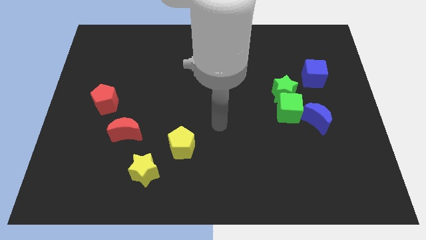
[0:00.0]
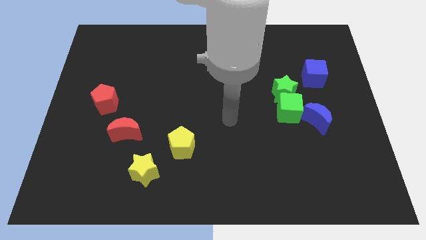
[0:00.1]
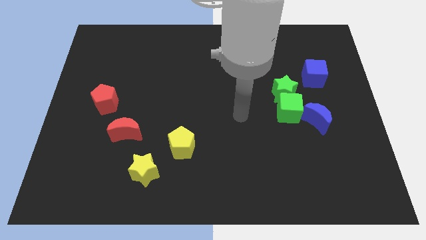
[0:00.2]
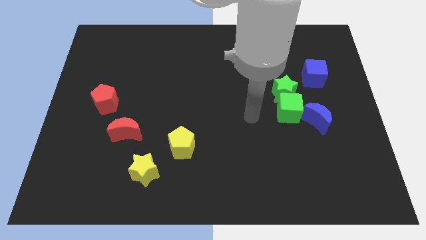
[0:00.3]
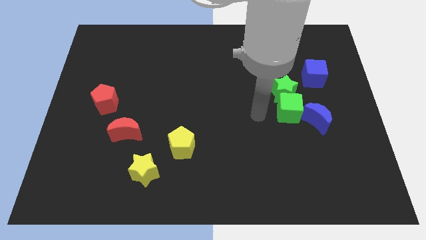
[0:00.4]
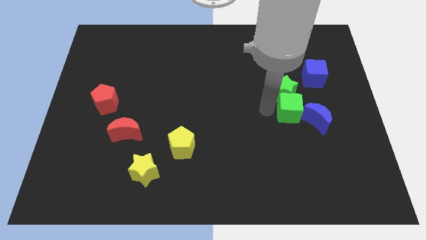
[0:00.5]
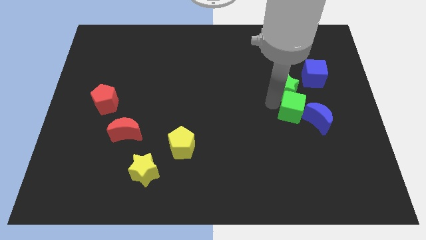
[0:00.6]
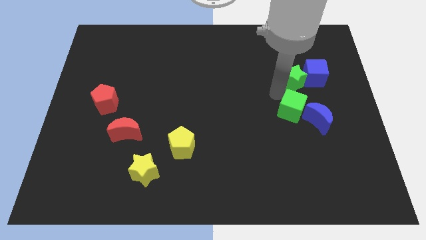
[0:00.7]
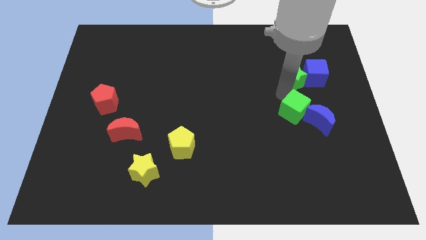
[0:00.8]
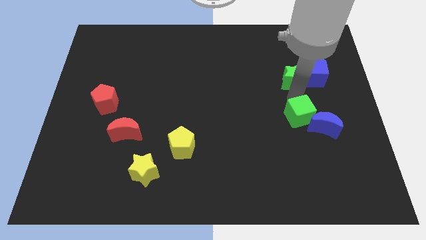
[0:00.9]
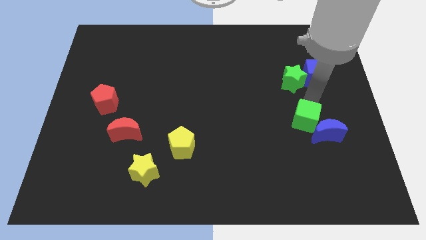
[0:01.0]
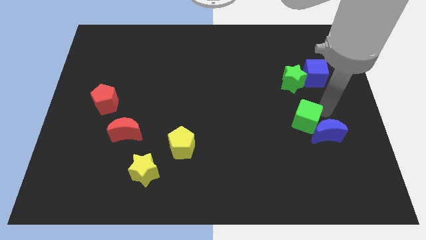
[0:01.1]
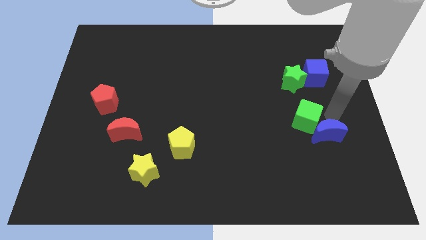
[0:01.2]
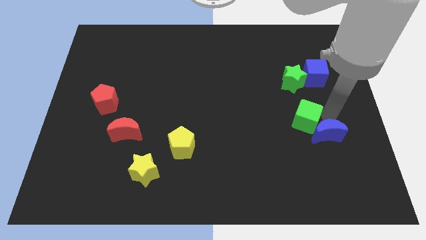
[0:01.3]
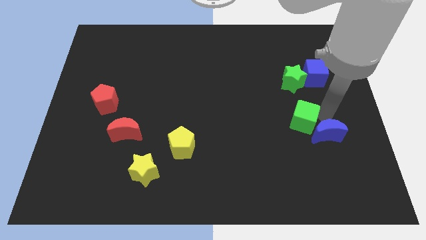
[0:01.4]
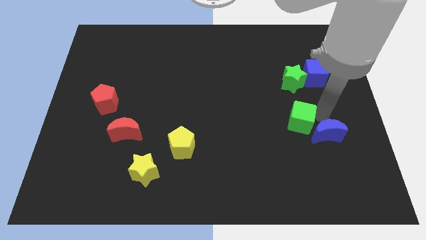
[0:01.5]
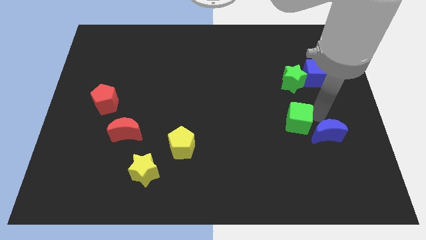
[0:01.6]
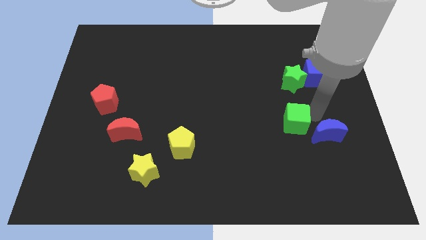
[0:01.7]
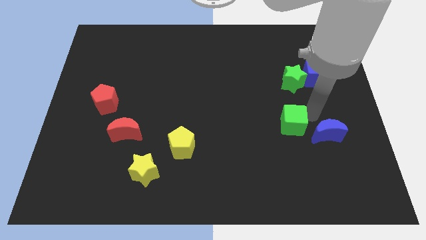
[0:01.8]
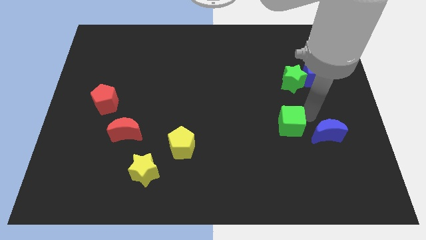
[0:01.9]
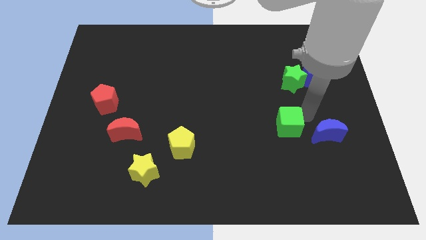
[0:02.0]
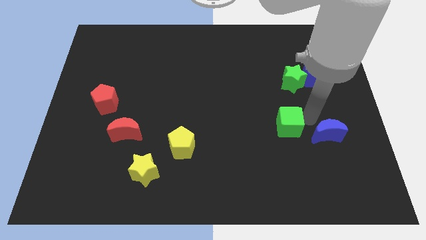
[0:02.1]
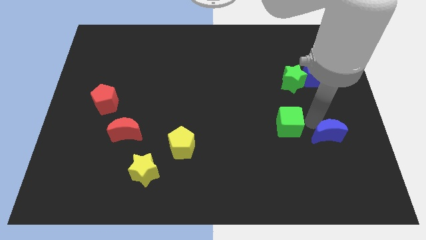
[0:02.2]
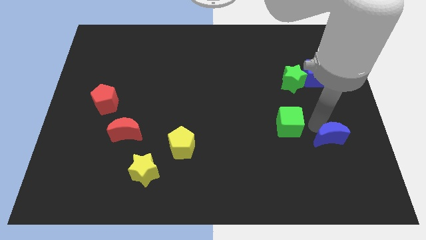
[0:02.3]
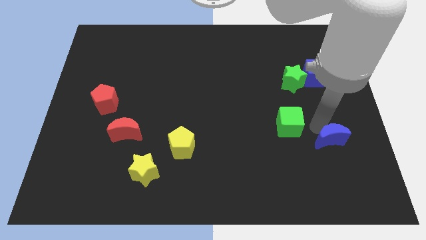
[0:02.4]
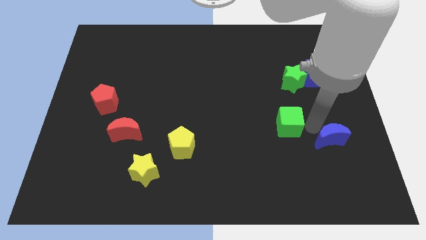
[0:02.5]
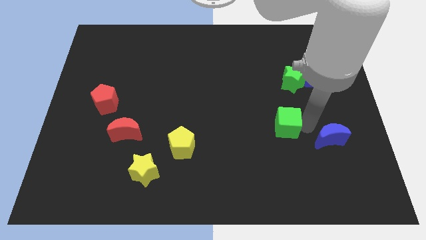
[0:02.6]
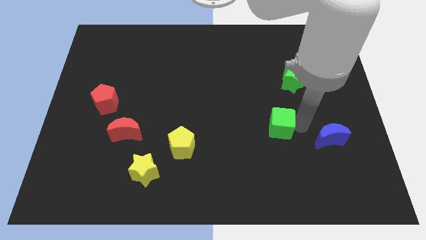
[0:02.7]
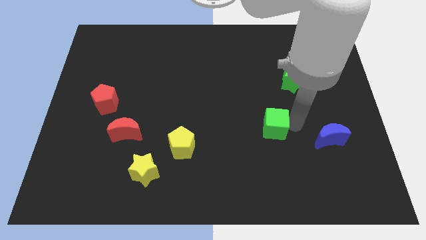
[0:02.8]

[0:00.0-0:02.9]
separate the green cube from the green star and blue moon

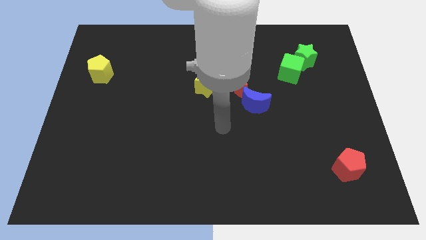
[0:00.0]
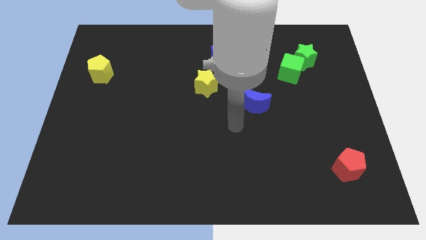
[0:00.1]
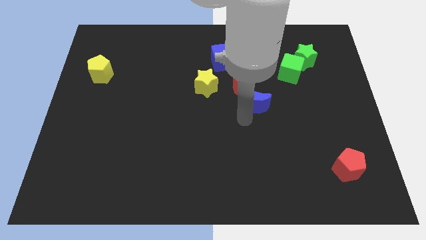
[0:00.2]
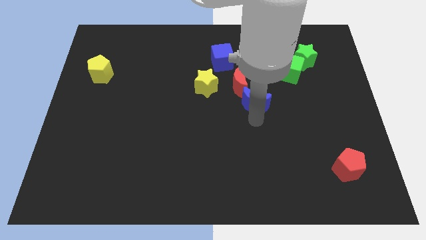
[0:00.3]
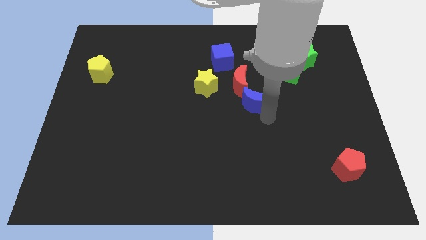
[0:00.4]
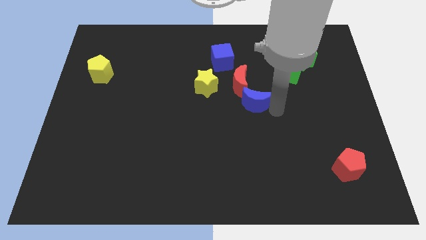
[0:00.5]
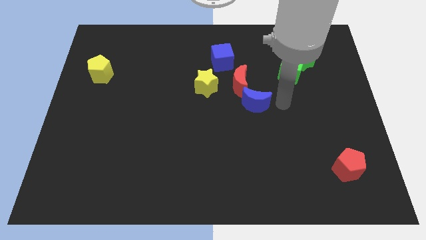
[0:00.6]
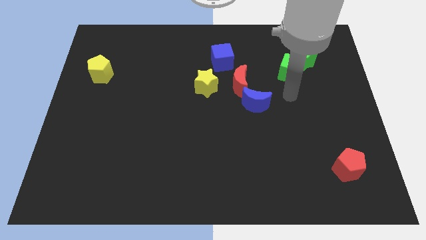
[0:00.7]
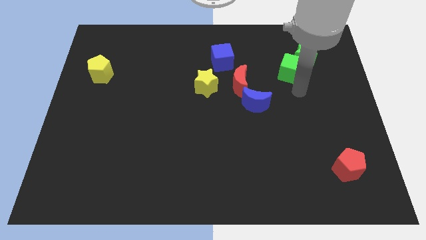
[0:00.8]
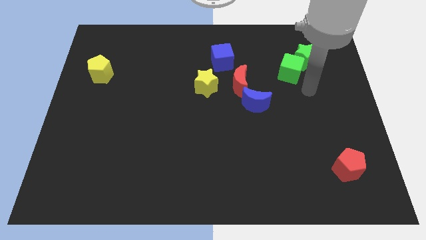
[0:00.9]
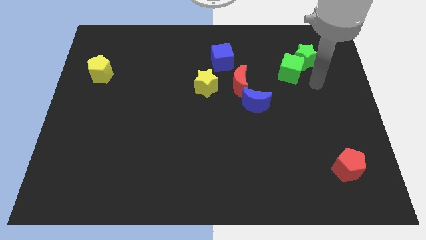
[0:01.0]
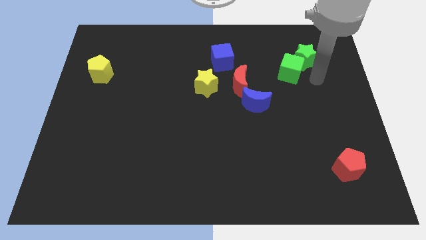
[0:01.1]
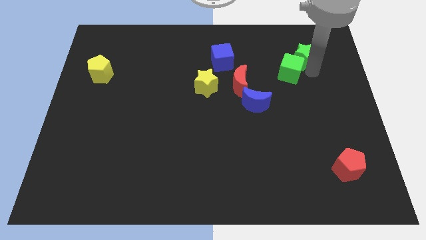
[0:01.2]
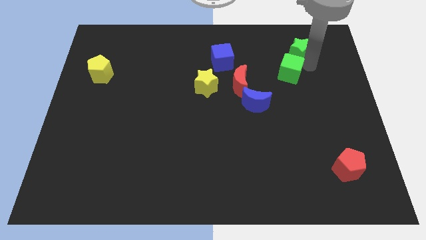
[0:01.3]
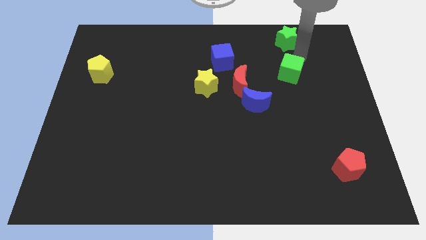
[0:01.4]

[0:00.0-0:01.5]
separate the green cube from the green star

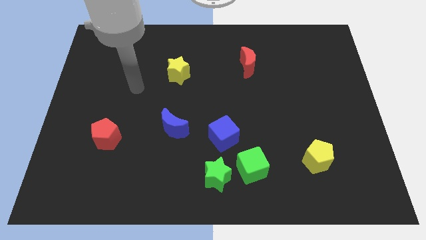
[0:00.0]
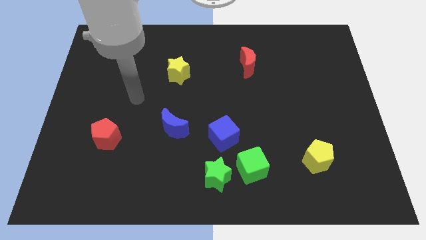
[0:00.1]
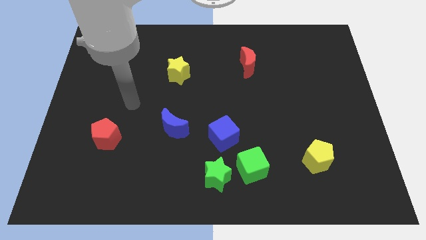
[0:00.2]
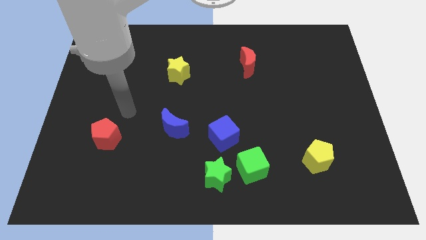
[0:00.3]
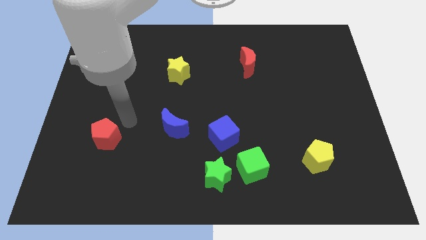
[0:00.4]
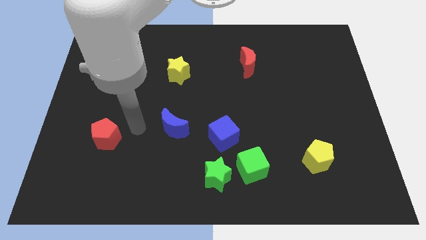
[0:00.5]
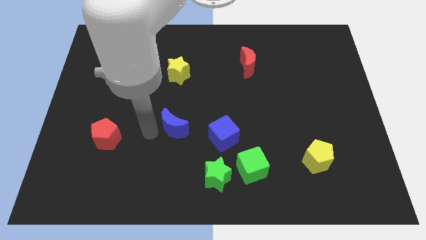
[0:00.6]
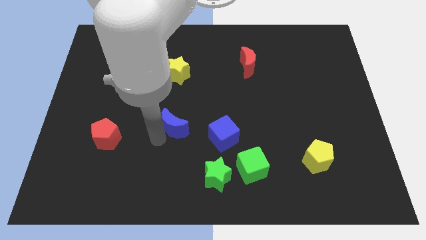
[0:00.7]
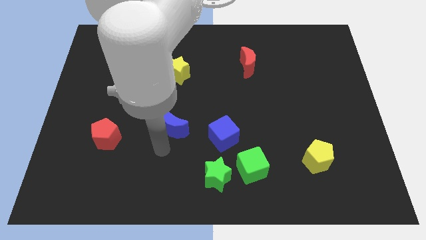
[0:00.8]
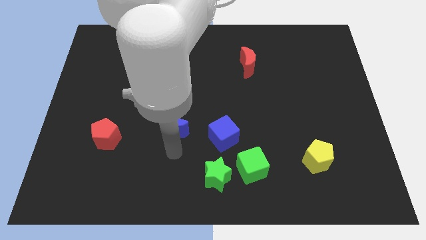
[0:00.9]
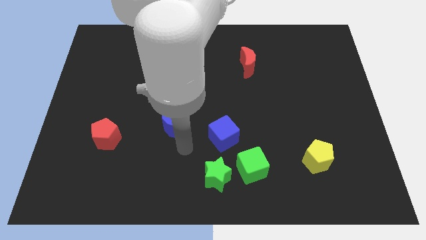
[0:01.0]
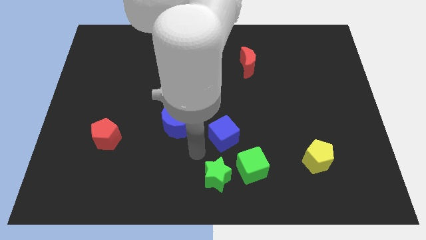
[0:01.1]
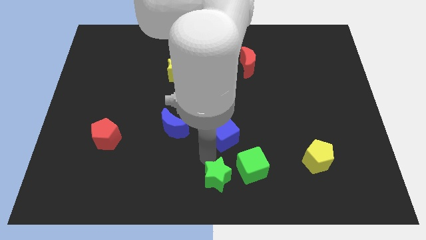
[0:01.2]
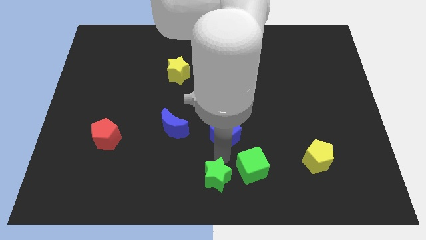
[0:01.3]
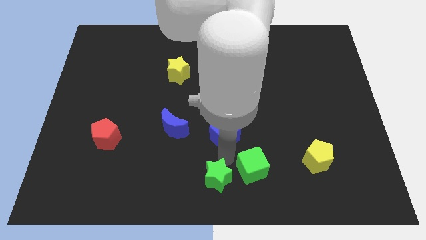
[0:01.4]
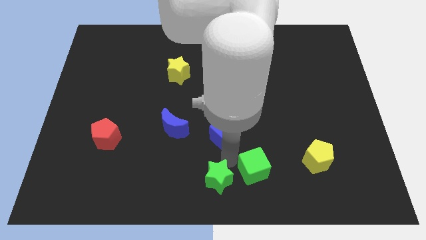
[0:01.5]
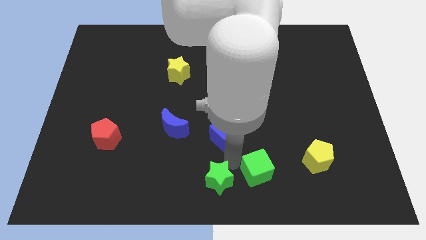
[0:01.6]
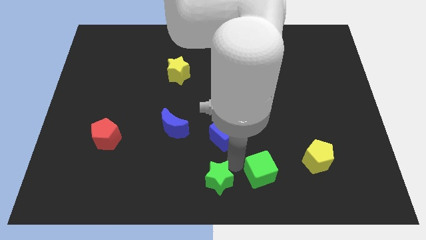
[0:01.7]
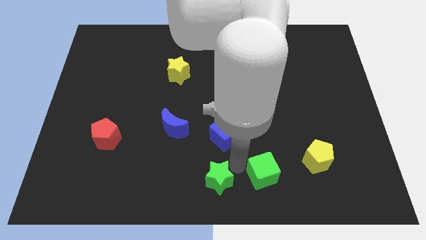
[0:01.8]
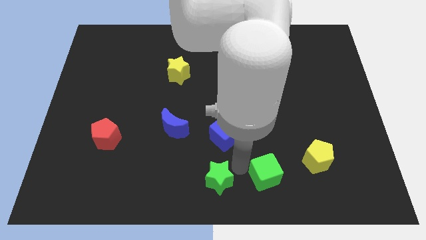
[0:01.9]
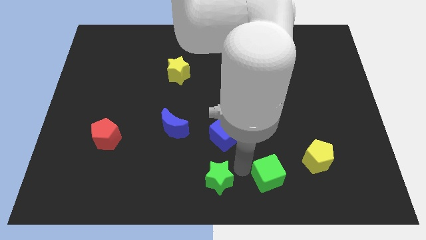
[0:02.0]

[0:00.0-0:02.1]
pull the green cube apart from the green star and blue cube

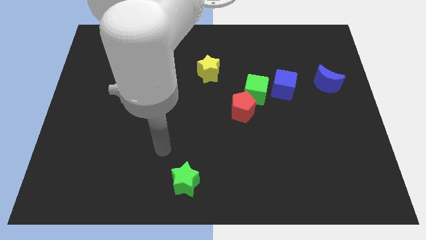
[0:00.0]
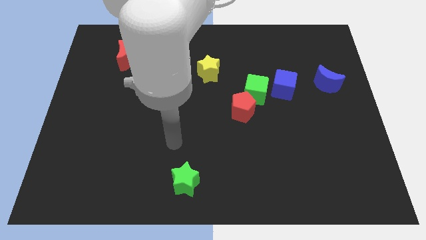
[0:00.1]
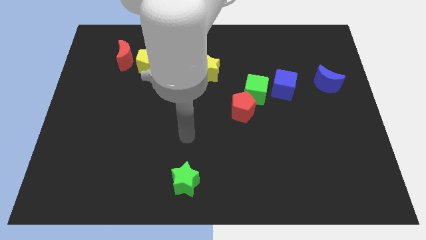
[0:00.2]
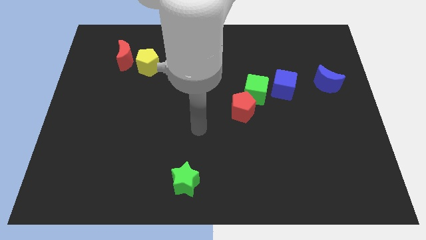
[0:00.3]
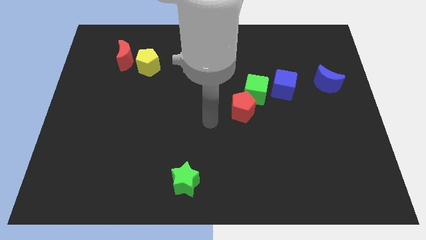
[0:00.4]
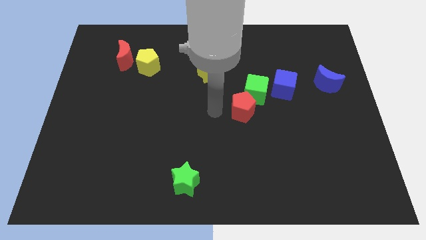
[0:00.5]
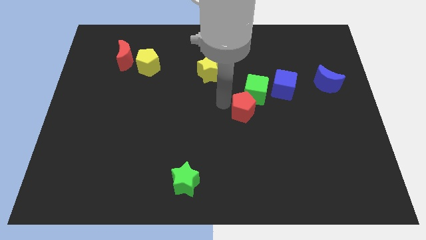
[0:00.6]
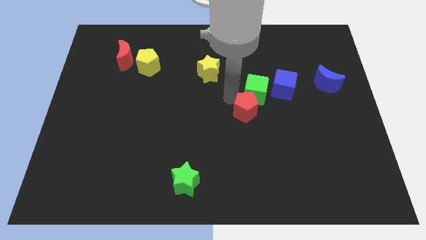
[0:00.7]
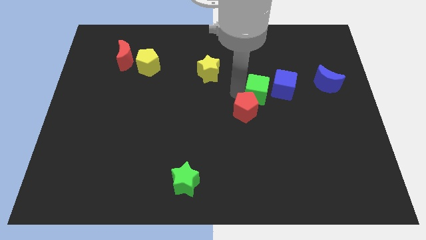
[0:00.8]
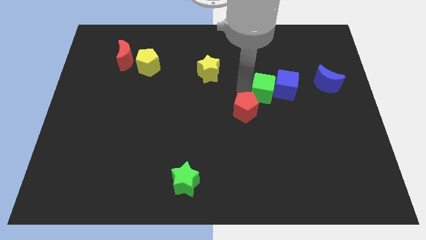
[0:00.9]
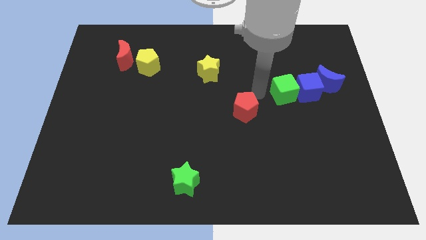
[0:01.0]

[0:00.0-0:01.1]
move the red pentagon away from the green cube

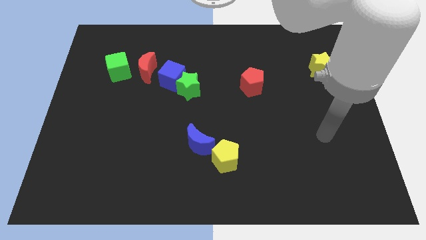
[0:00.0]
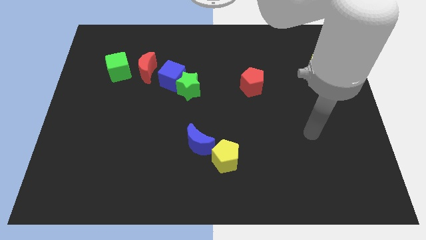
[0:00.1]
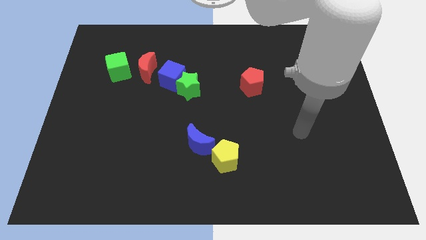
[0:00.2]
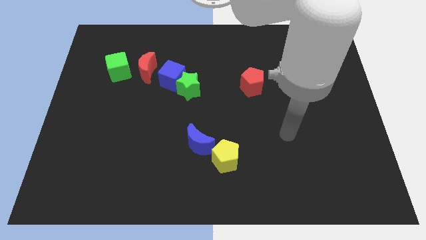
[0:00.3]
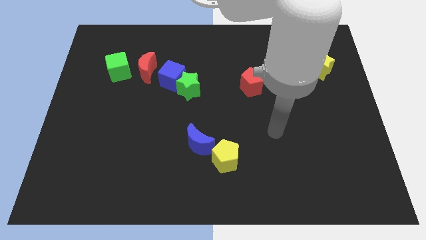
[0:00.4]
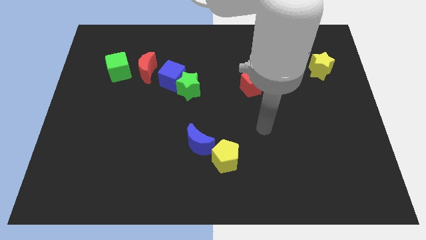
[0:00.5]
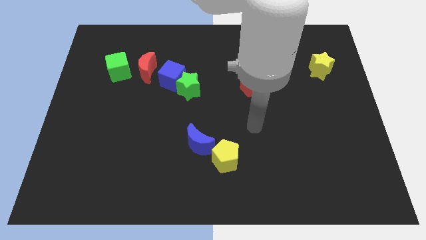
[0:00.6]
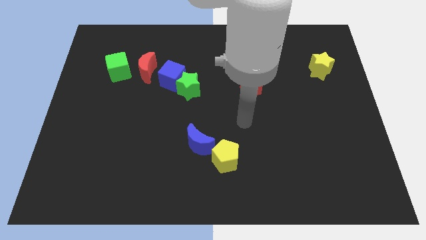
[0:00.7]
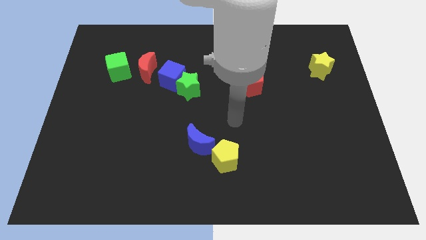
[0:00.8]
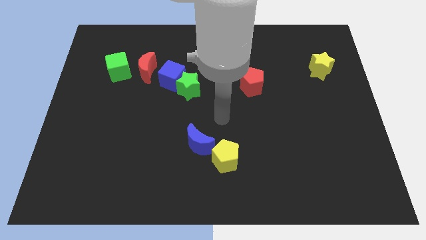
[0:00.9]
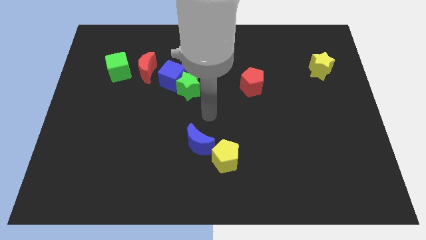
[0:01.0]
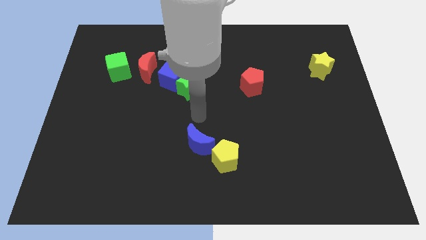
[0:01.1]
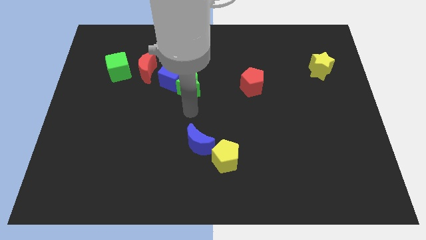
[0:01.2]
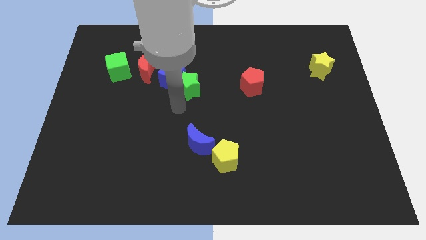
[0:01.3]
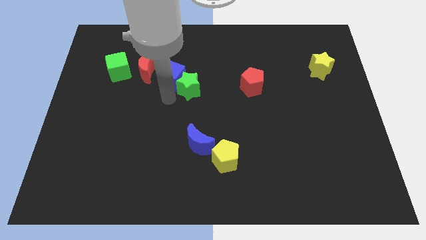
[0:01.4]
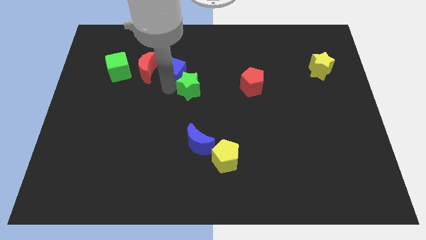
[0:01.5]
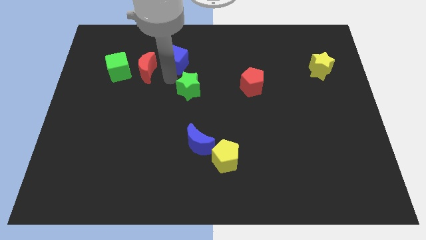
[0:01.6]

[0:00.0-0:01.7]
pull the green star apart from the blue cube

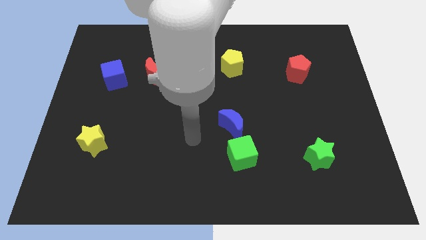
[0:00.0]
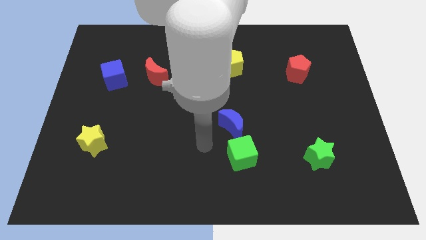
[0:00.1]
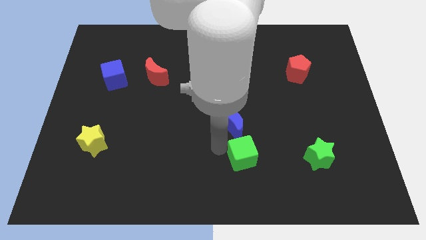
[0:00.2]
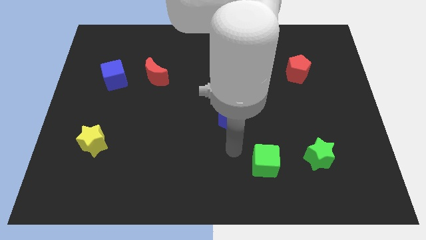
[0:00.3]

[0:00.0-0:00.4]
move the blue moon away from the green cube
